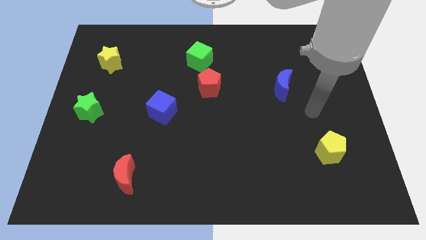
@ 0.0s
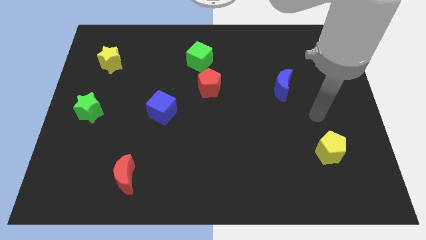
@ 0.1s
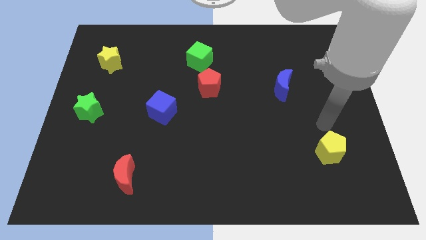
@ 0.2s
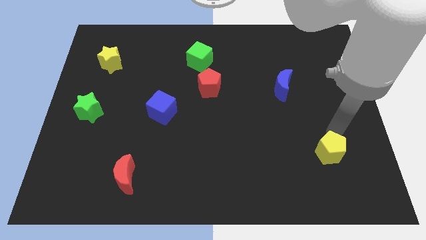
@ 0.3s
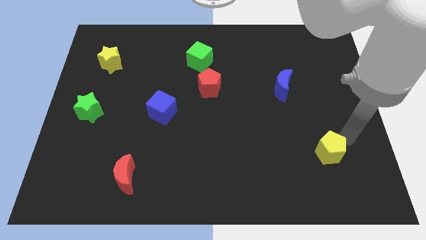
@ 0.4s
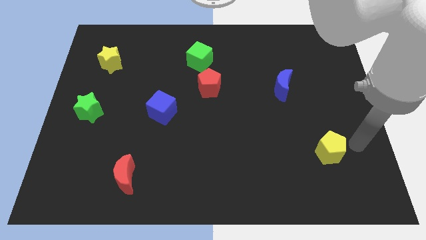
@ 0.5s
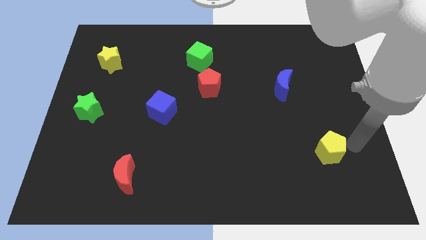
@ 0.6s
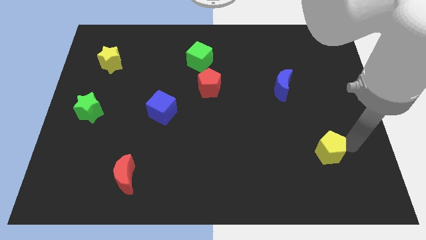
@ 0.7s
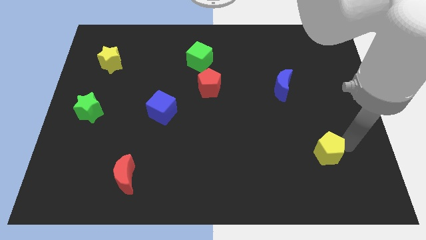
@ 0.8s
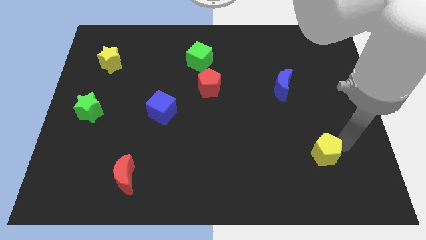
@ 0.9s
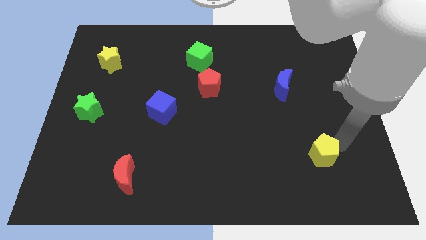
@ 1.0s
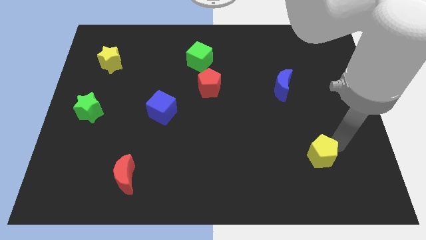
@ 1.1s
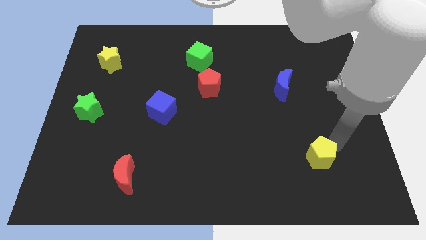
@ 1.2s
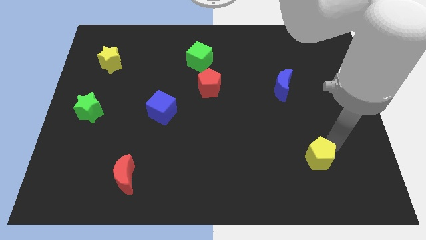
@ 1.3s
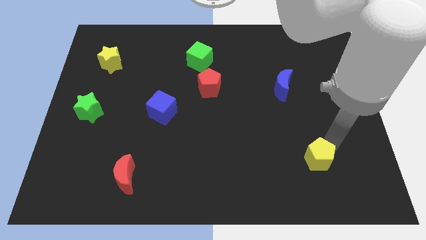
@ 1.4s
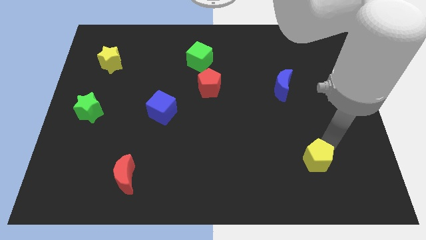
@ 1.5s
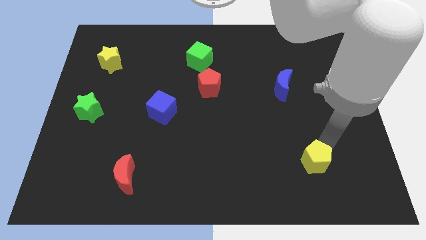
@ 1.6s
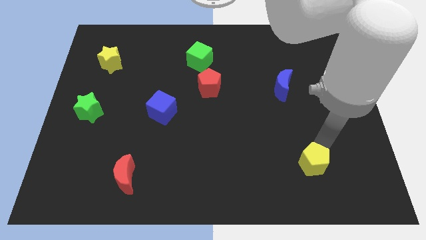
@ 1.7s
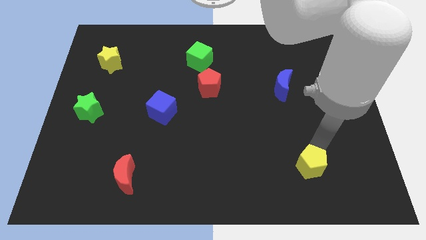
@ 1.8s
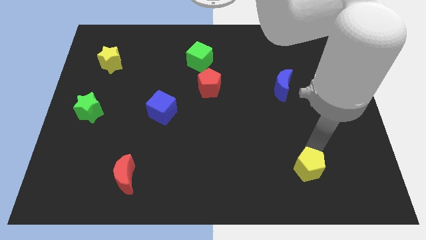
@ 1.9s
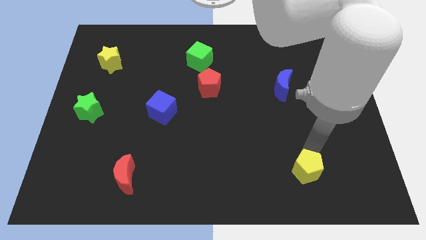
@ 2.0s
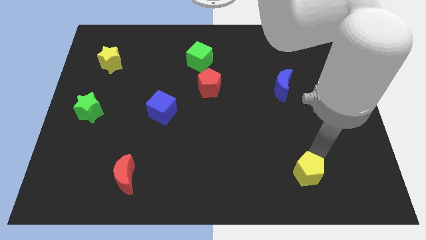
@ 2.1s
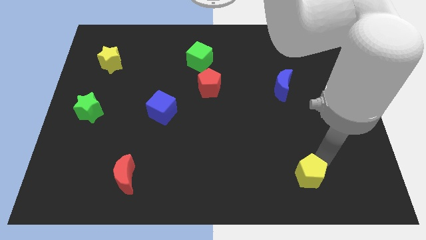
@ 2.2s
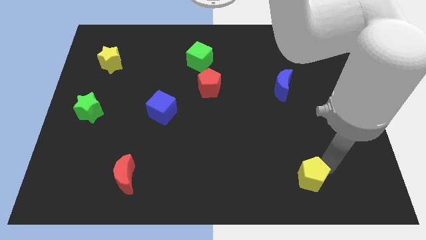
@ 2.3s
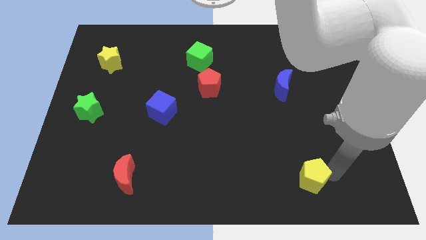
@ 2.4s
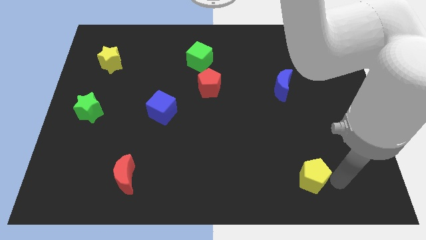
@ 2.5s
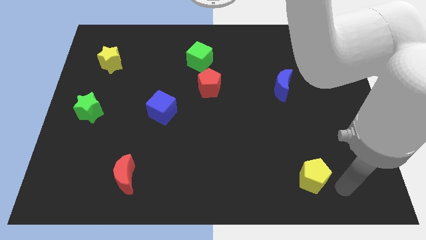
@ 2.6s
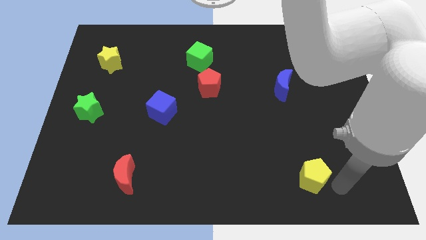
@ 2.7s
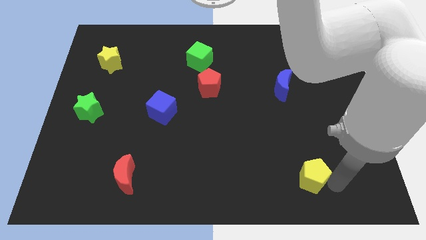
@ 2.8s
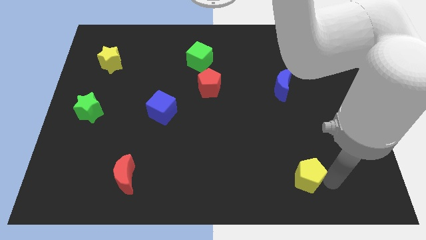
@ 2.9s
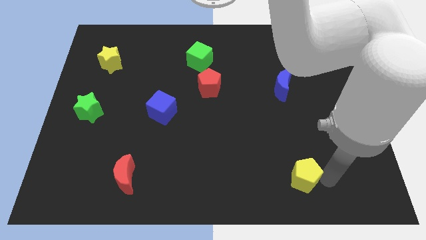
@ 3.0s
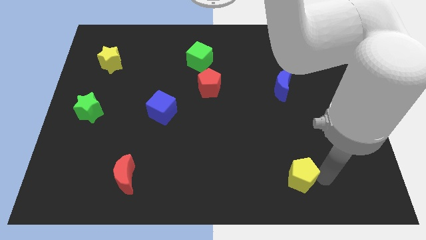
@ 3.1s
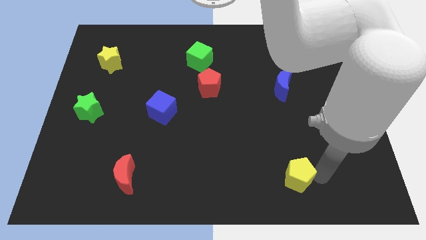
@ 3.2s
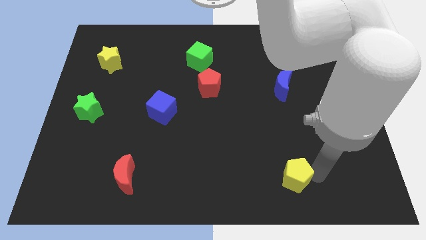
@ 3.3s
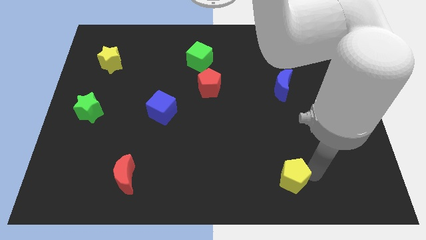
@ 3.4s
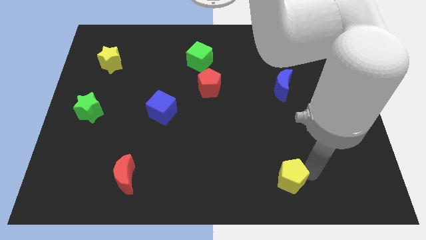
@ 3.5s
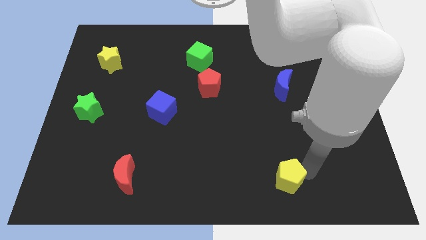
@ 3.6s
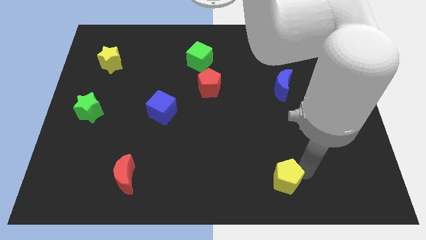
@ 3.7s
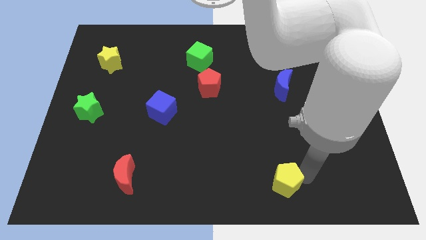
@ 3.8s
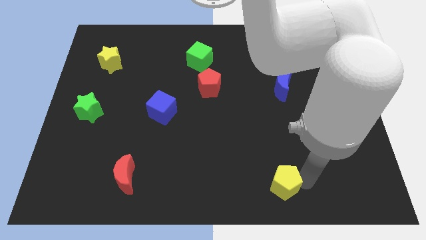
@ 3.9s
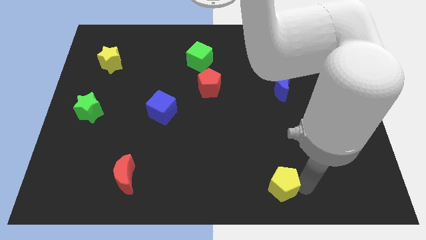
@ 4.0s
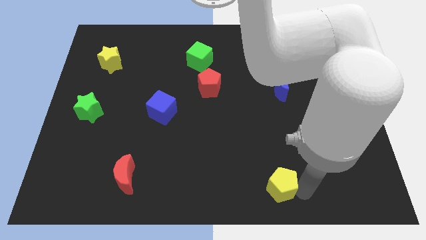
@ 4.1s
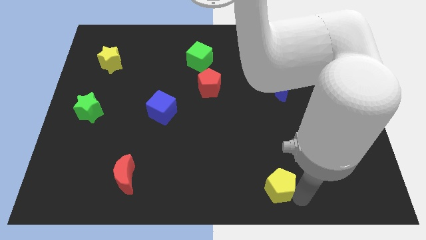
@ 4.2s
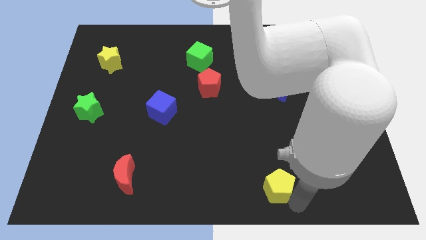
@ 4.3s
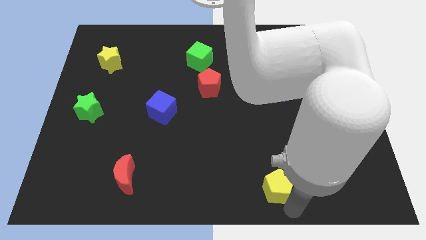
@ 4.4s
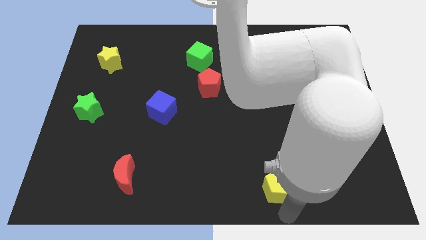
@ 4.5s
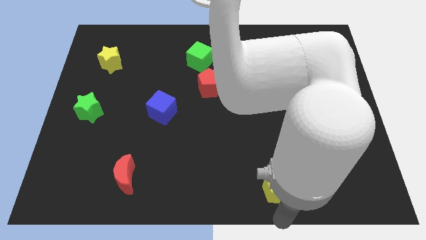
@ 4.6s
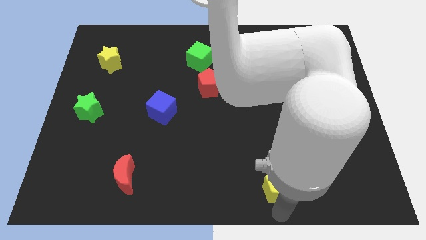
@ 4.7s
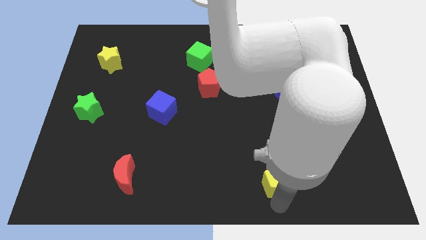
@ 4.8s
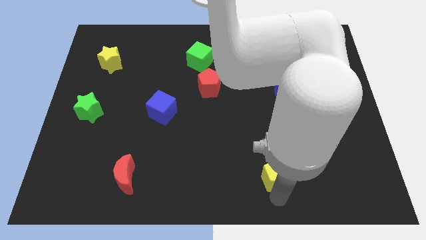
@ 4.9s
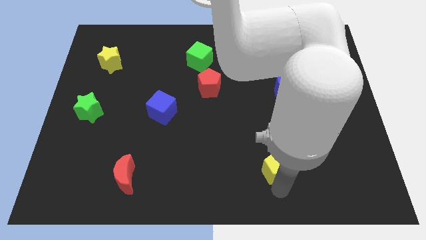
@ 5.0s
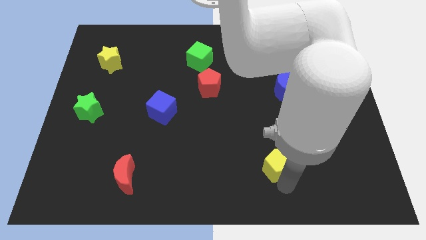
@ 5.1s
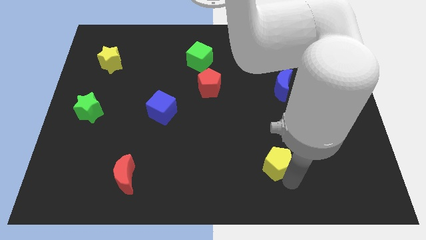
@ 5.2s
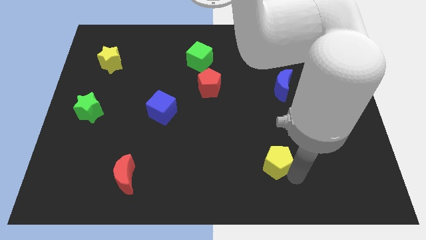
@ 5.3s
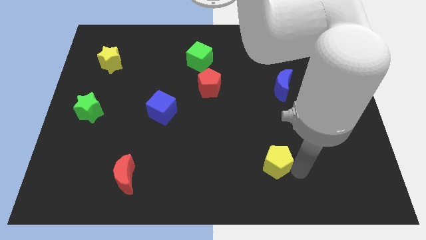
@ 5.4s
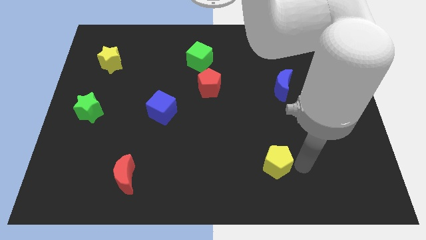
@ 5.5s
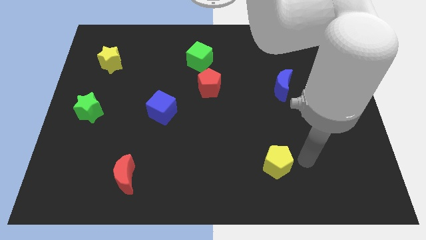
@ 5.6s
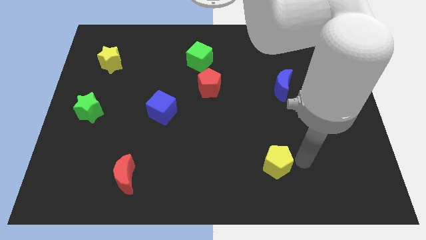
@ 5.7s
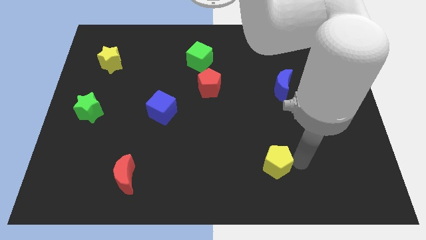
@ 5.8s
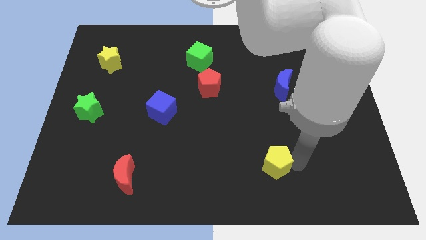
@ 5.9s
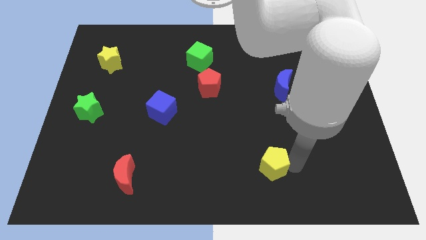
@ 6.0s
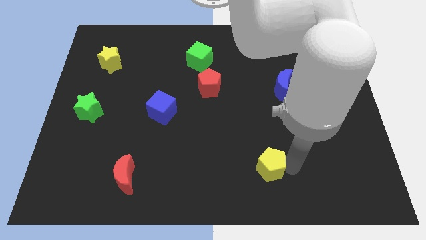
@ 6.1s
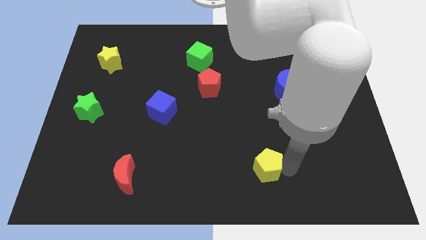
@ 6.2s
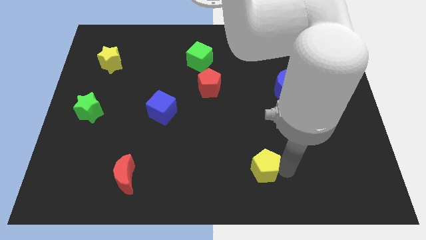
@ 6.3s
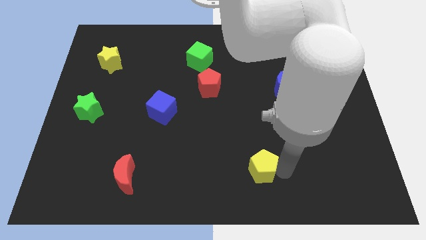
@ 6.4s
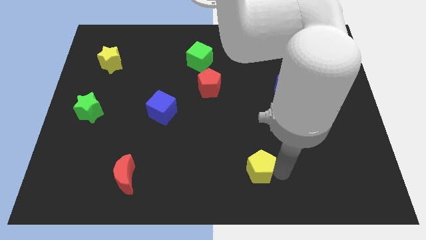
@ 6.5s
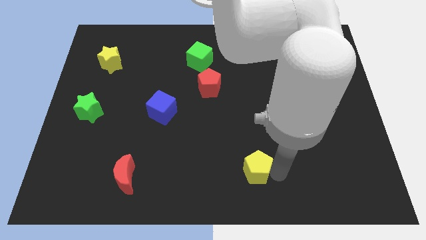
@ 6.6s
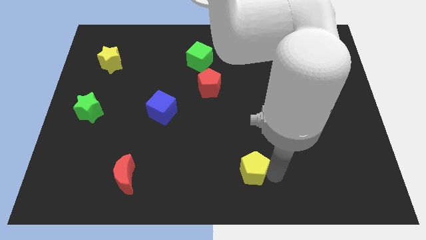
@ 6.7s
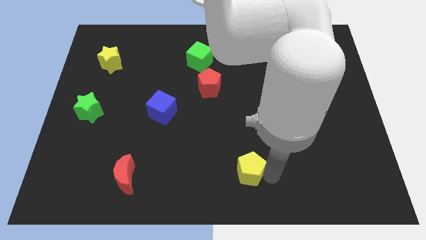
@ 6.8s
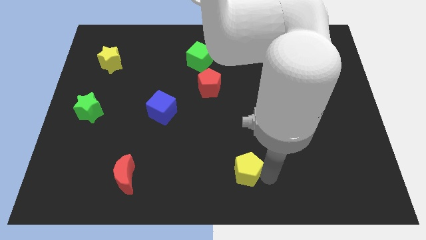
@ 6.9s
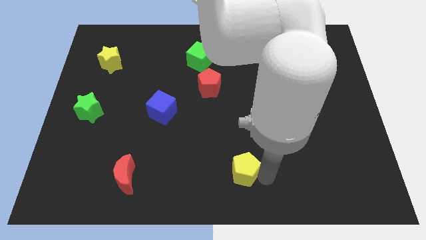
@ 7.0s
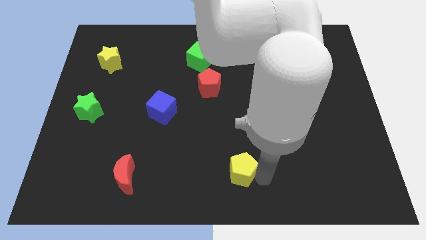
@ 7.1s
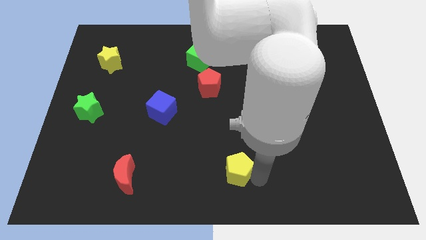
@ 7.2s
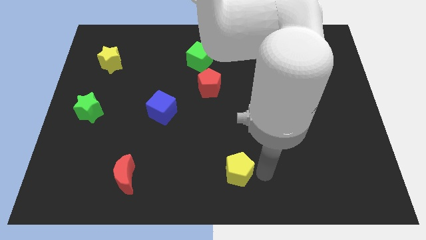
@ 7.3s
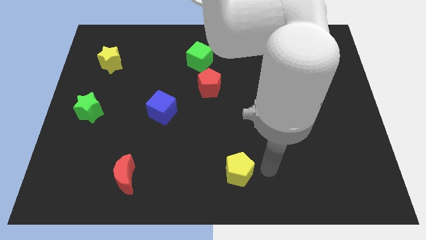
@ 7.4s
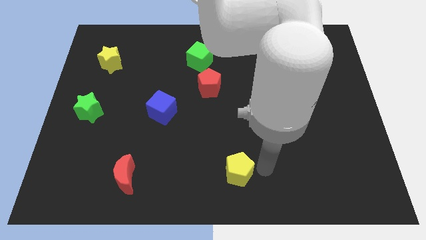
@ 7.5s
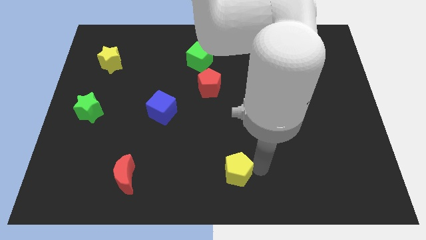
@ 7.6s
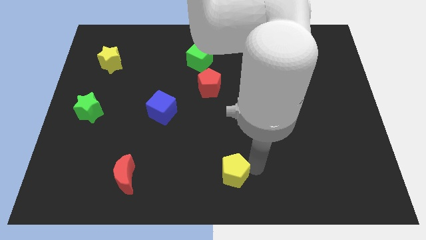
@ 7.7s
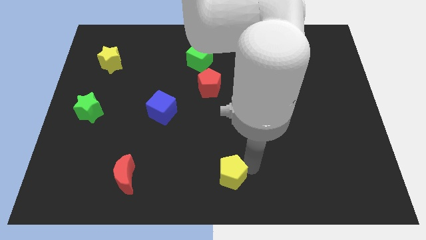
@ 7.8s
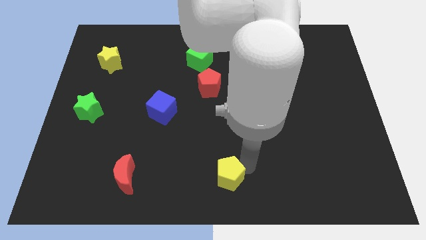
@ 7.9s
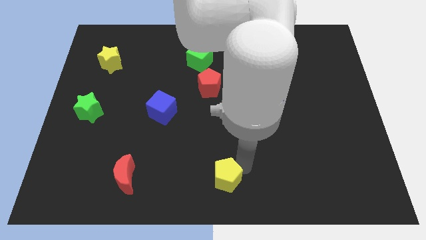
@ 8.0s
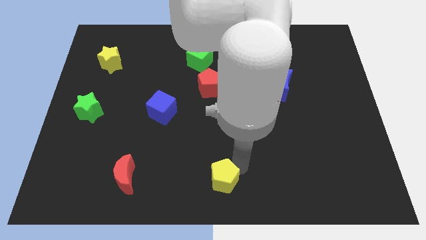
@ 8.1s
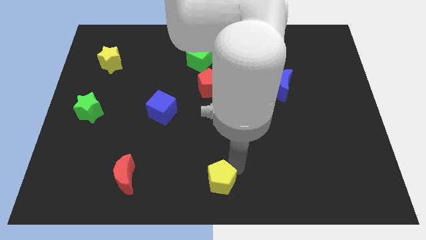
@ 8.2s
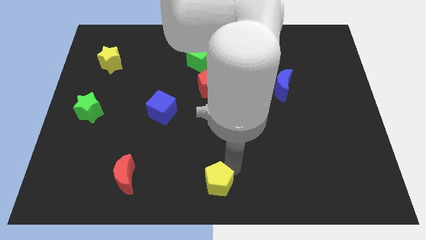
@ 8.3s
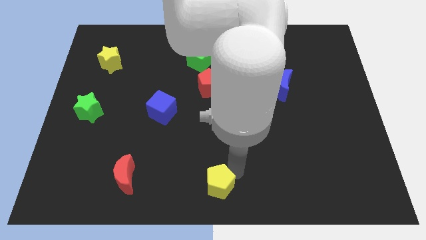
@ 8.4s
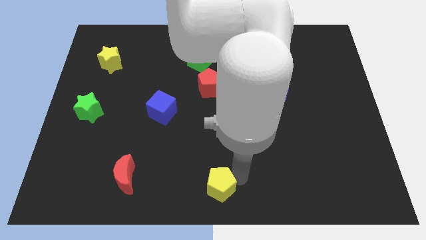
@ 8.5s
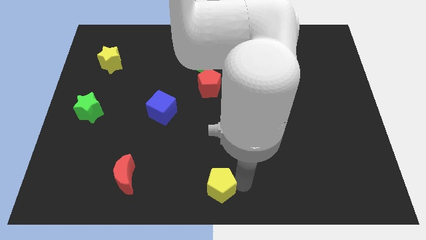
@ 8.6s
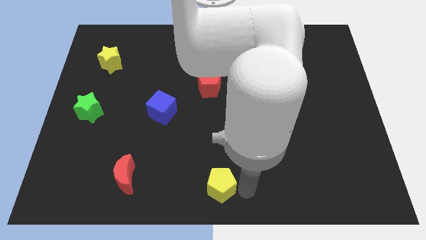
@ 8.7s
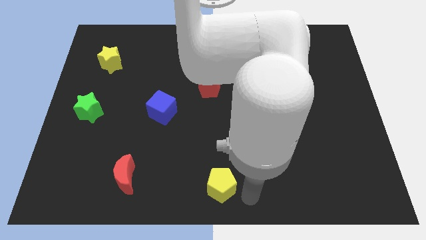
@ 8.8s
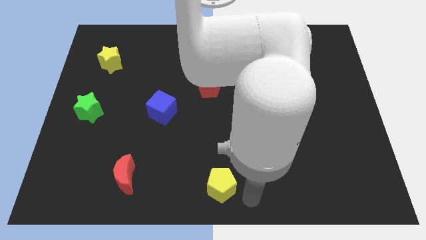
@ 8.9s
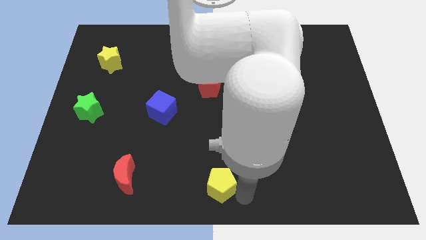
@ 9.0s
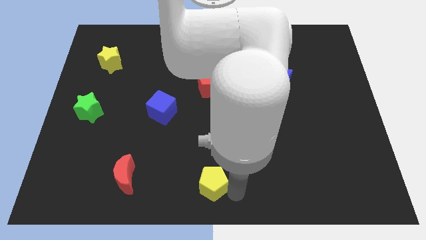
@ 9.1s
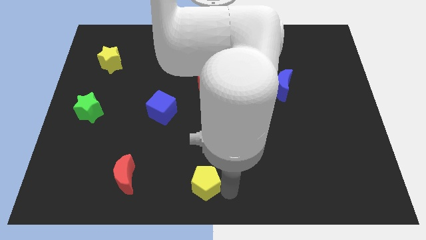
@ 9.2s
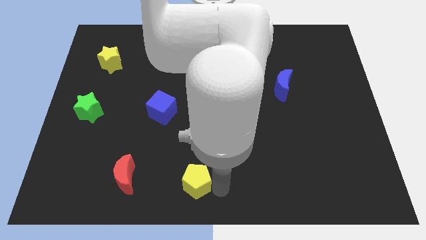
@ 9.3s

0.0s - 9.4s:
push the yellow pentagon just right of the red moon
